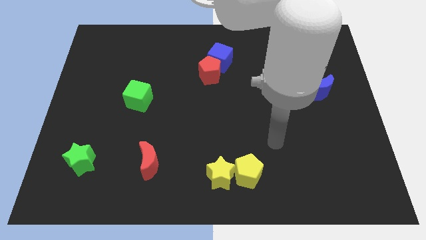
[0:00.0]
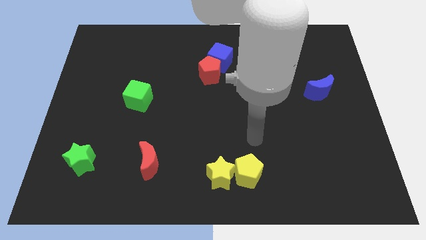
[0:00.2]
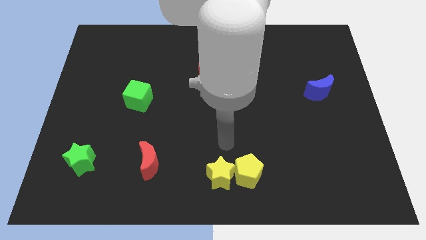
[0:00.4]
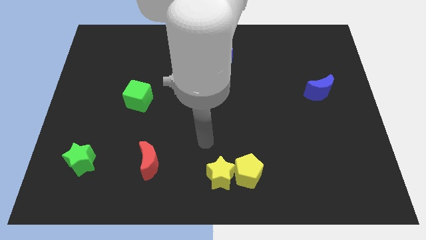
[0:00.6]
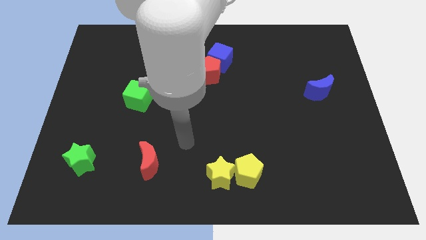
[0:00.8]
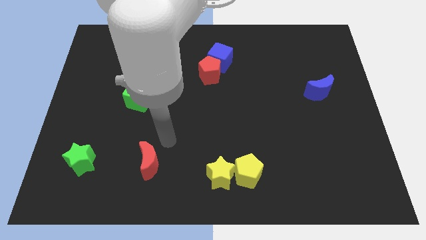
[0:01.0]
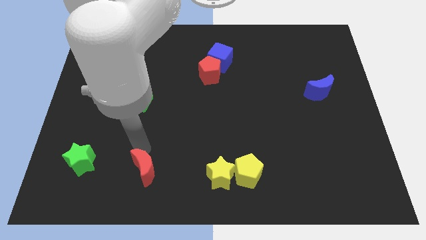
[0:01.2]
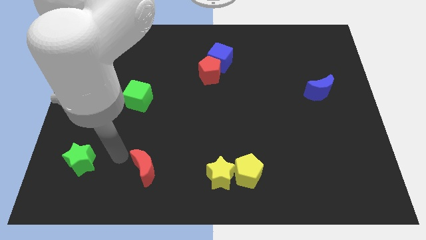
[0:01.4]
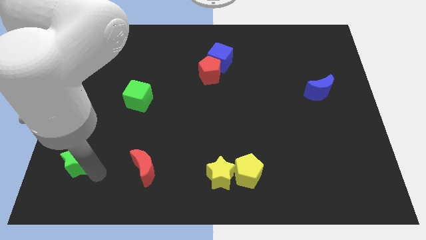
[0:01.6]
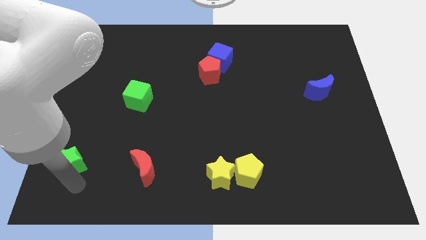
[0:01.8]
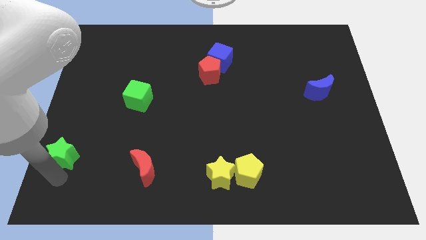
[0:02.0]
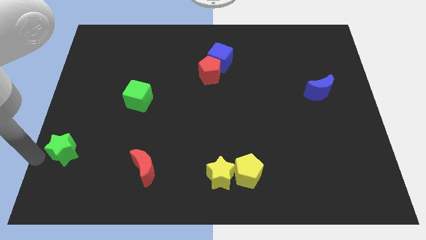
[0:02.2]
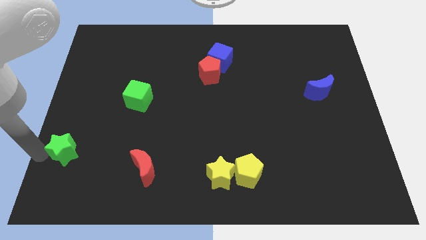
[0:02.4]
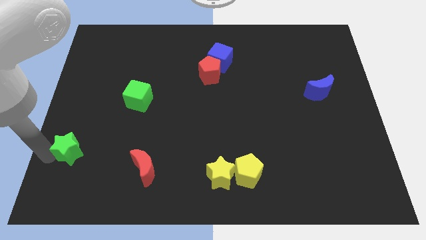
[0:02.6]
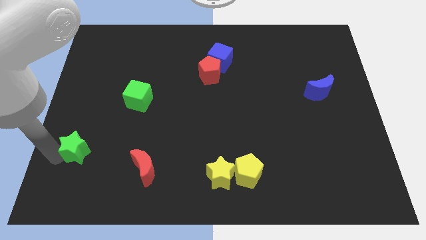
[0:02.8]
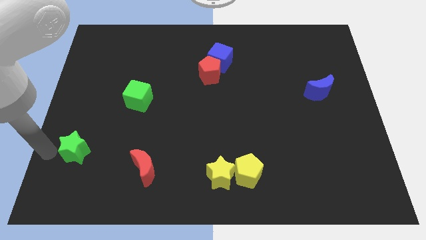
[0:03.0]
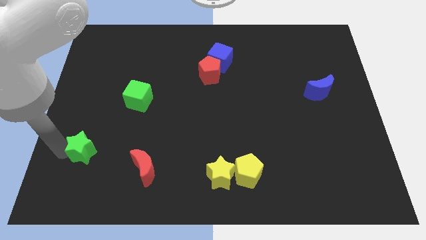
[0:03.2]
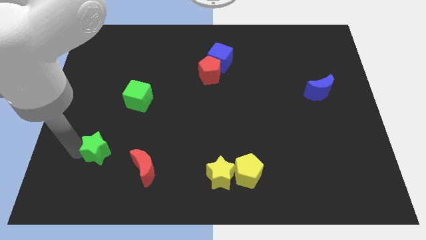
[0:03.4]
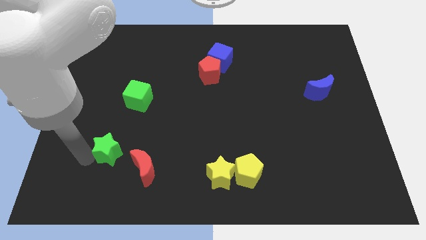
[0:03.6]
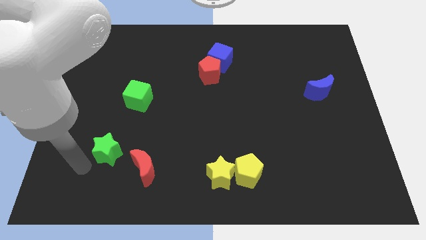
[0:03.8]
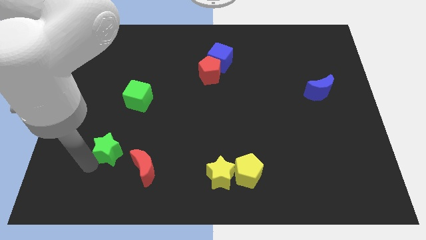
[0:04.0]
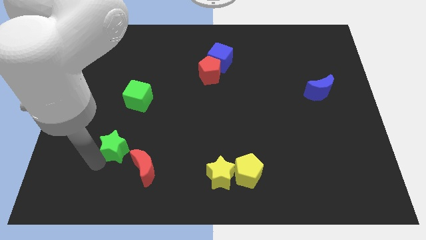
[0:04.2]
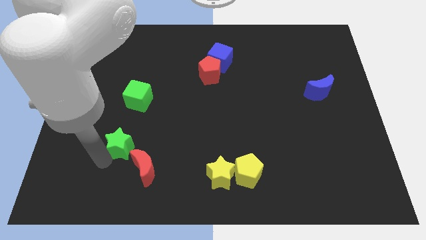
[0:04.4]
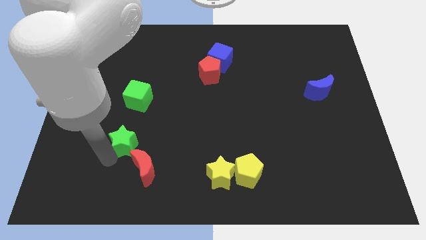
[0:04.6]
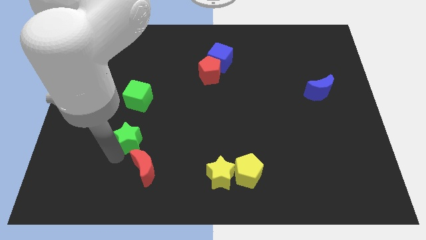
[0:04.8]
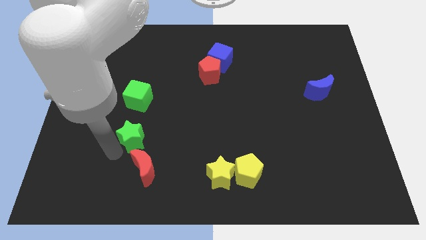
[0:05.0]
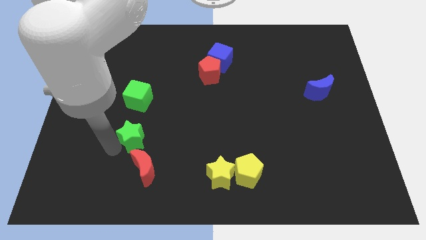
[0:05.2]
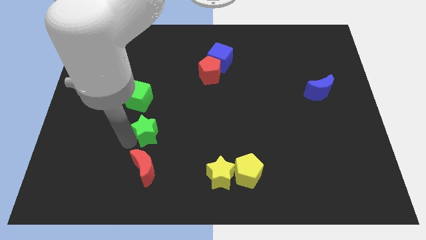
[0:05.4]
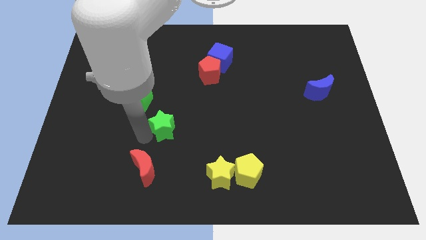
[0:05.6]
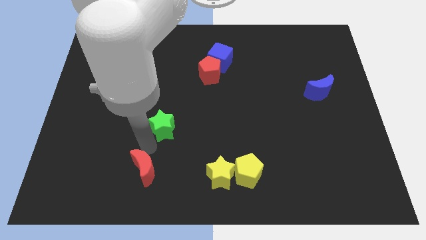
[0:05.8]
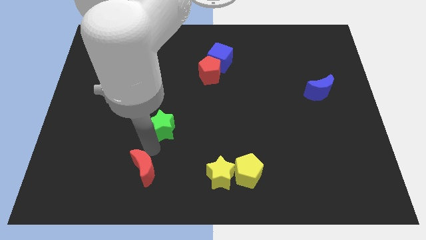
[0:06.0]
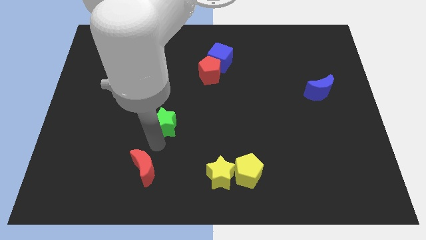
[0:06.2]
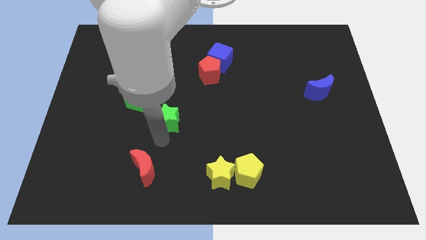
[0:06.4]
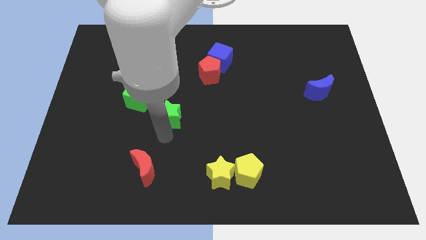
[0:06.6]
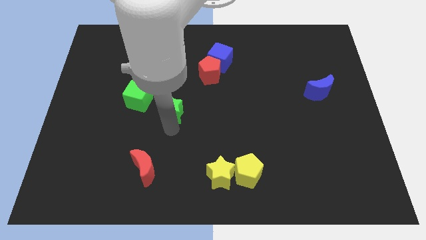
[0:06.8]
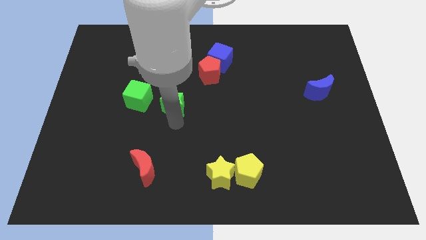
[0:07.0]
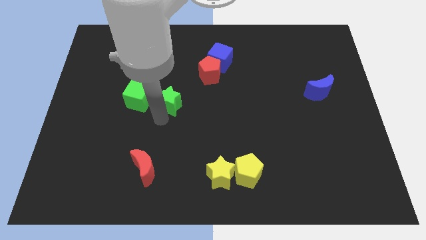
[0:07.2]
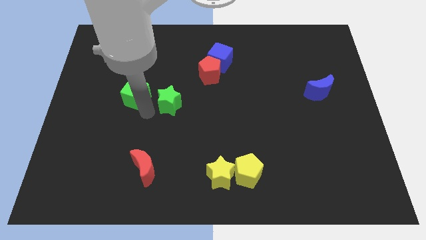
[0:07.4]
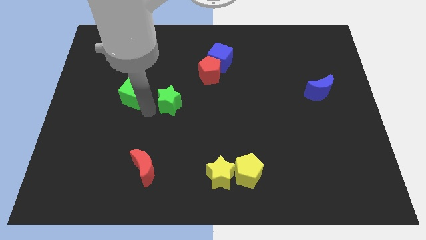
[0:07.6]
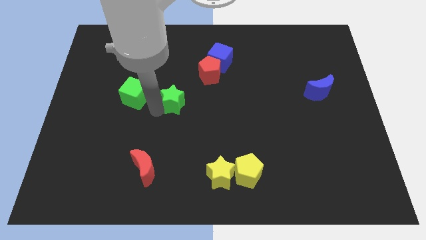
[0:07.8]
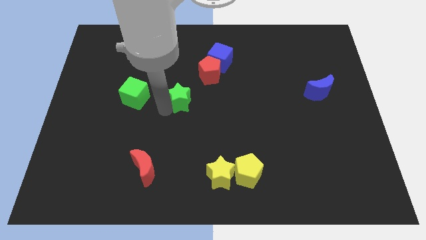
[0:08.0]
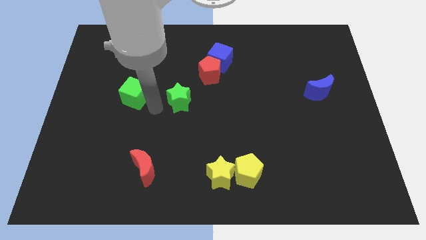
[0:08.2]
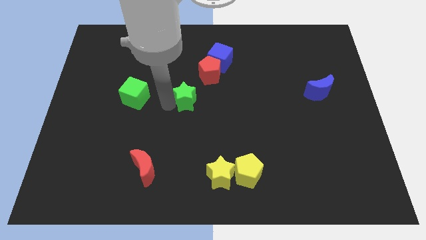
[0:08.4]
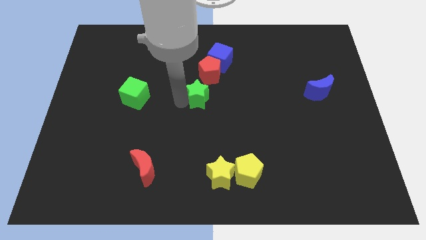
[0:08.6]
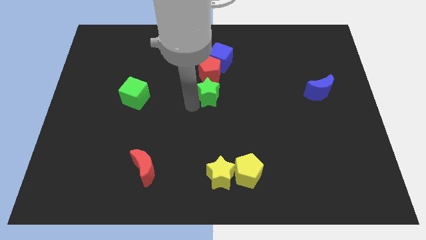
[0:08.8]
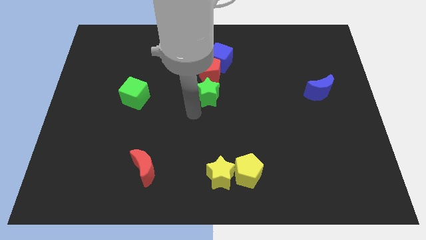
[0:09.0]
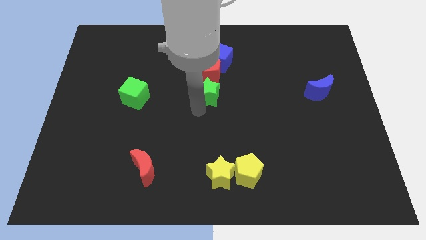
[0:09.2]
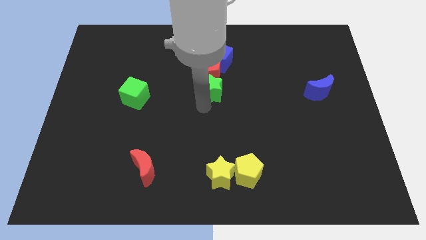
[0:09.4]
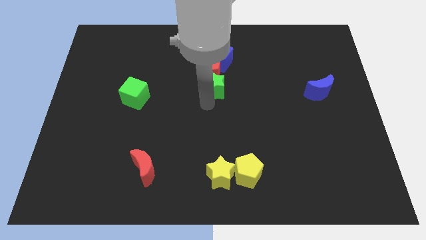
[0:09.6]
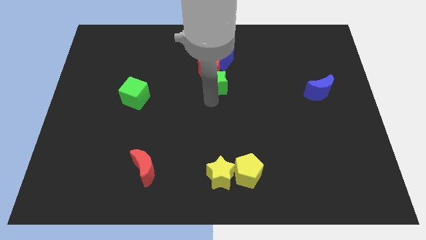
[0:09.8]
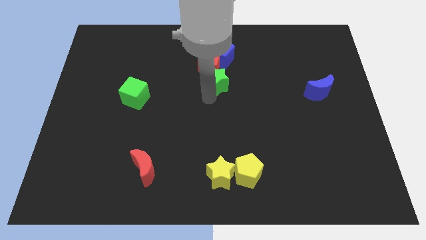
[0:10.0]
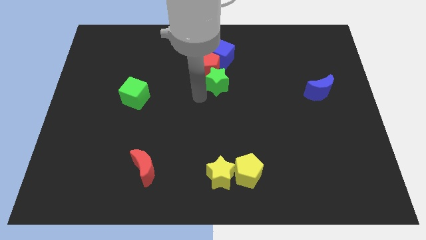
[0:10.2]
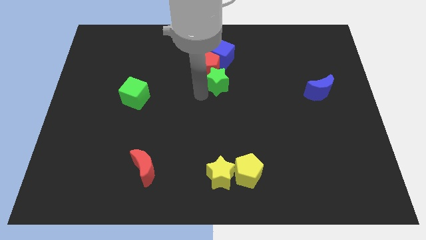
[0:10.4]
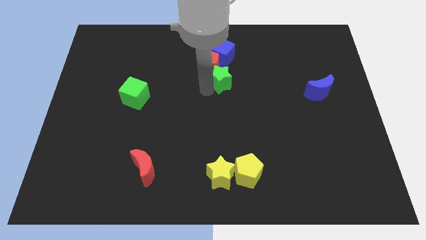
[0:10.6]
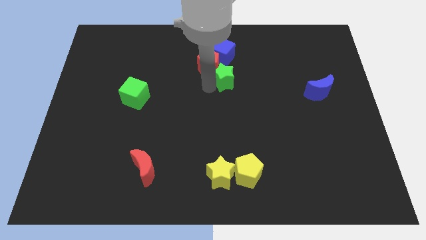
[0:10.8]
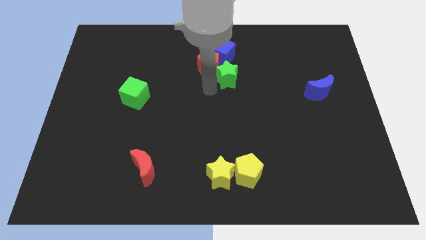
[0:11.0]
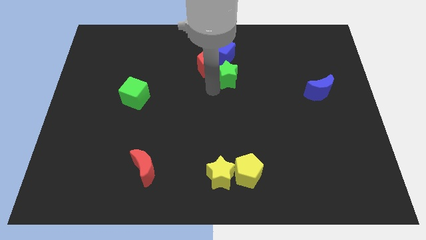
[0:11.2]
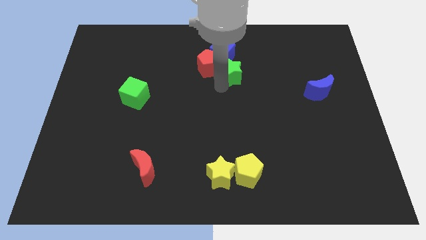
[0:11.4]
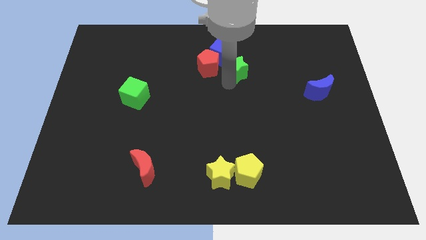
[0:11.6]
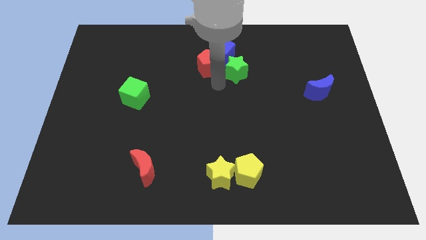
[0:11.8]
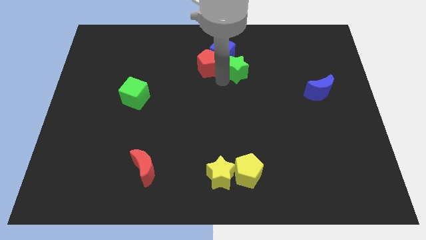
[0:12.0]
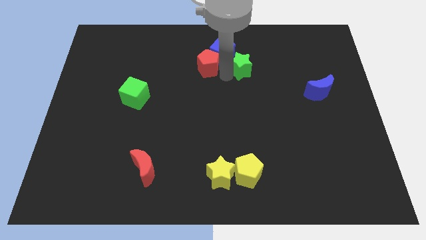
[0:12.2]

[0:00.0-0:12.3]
put the green star to the right of the blue cube

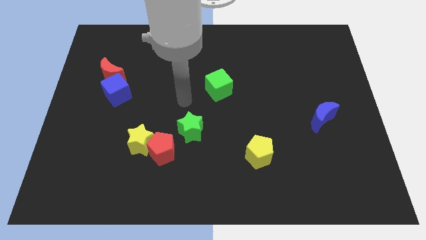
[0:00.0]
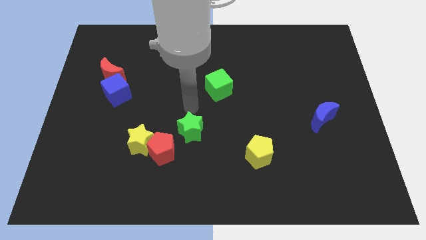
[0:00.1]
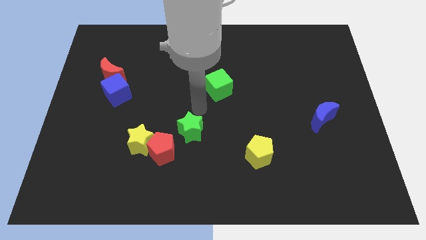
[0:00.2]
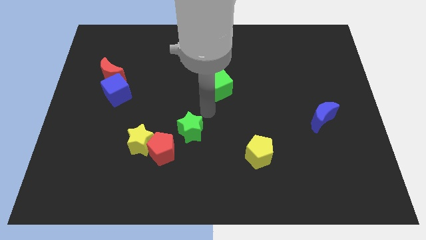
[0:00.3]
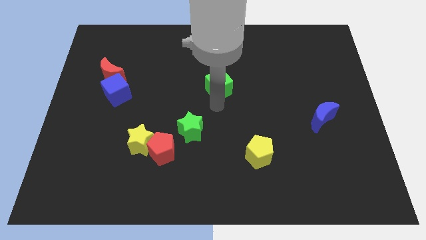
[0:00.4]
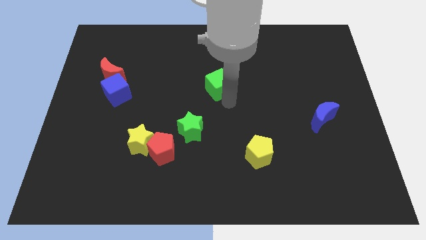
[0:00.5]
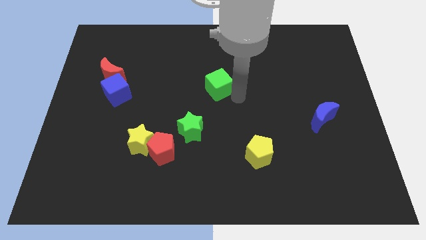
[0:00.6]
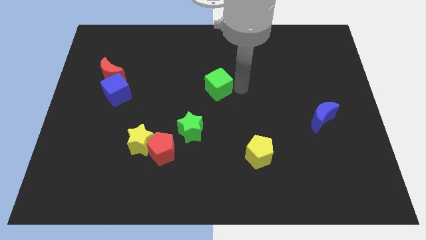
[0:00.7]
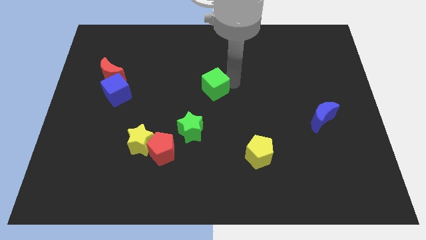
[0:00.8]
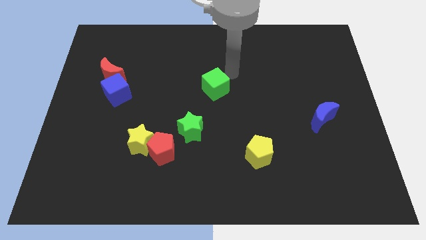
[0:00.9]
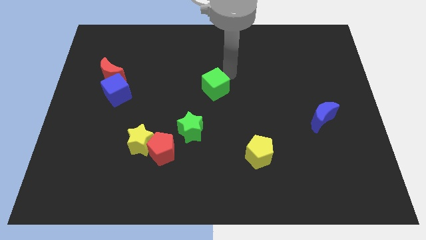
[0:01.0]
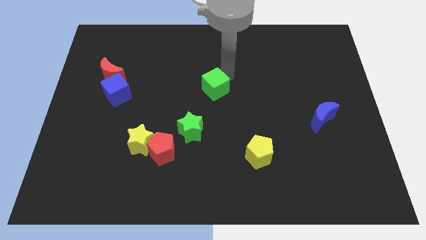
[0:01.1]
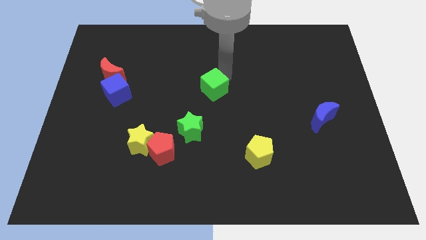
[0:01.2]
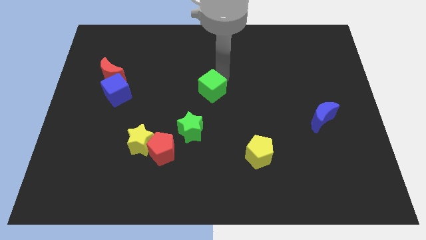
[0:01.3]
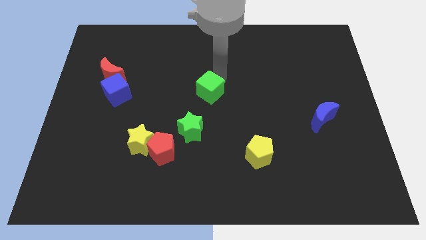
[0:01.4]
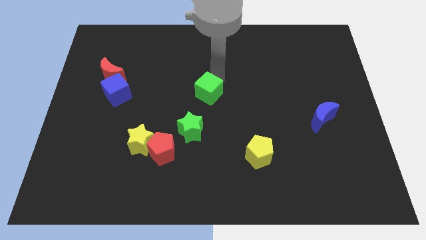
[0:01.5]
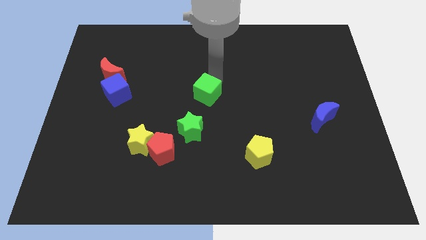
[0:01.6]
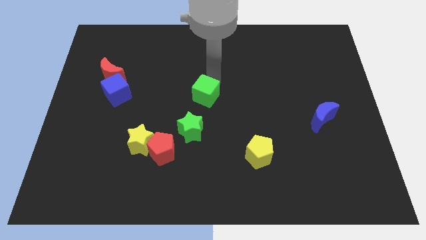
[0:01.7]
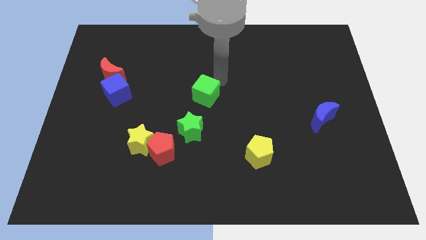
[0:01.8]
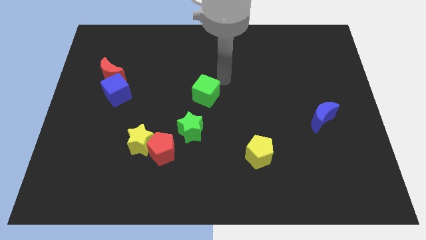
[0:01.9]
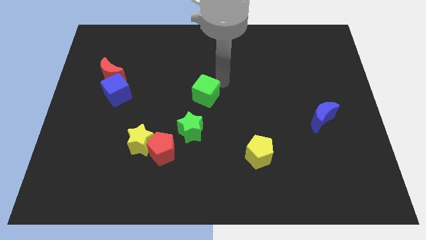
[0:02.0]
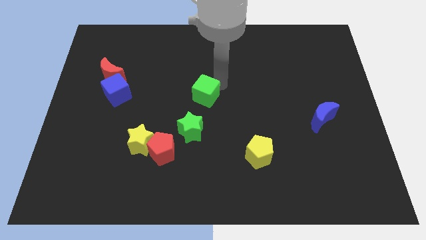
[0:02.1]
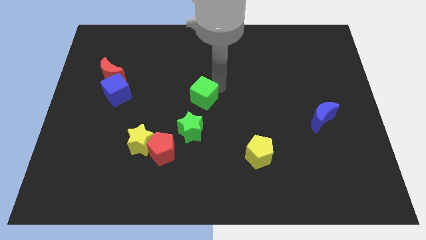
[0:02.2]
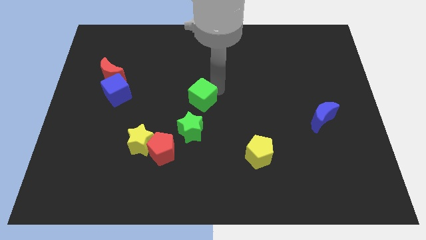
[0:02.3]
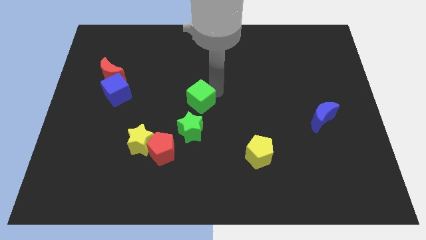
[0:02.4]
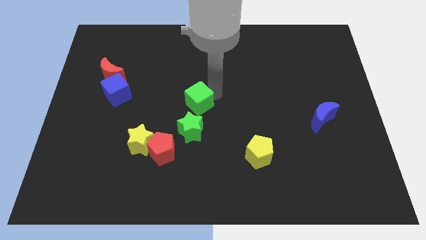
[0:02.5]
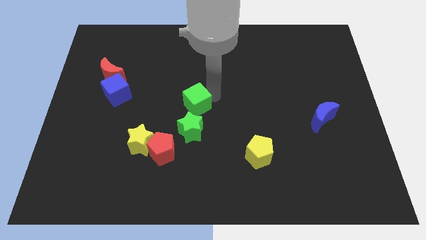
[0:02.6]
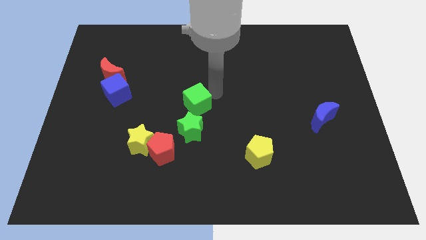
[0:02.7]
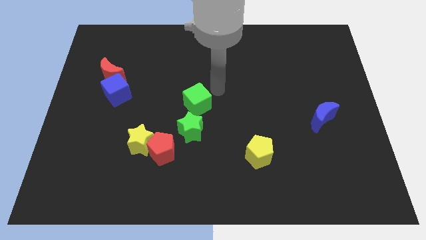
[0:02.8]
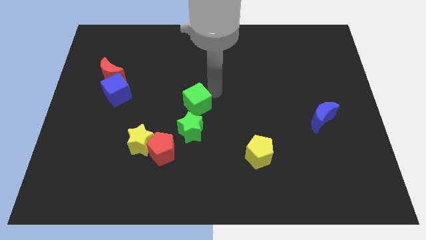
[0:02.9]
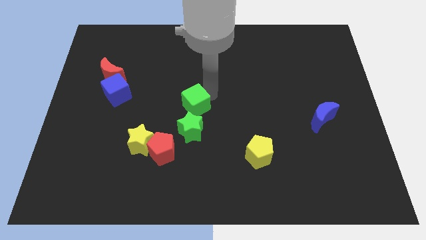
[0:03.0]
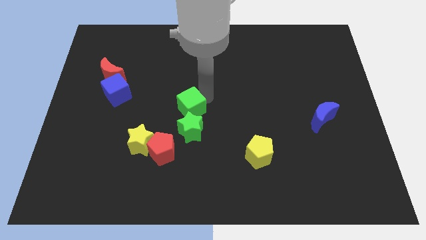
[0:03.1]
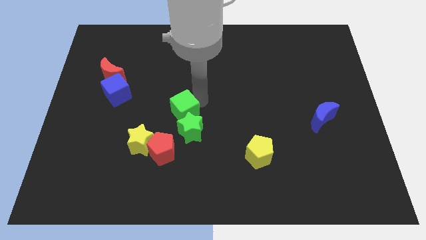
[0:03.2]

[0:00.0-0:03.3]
slide the green cube to the top right of the yellow star
